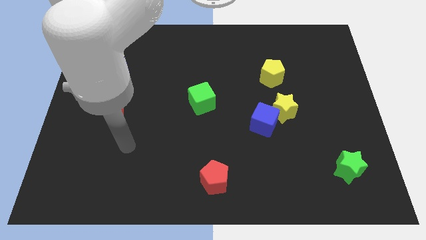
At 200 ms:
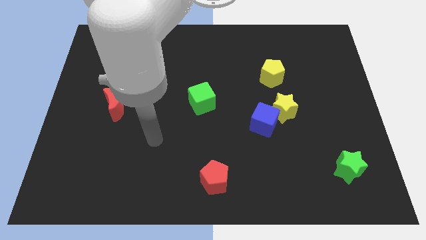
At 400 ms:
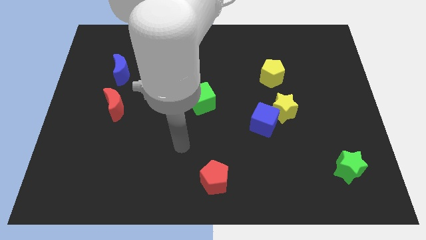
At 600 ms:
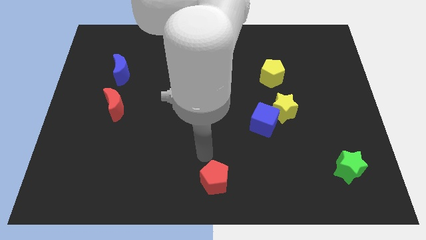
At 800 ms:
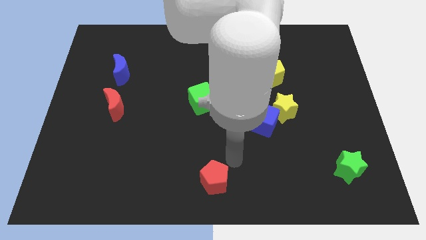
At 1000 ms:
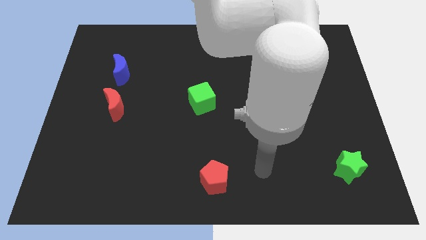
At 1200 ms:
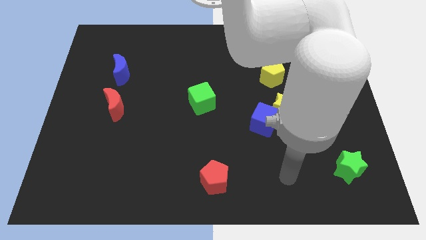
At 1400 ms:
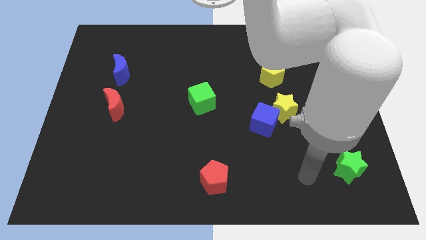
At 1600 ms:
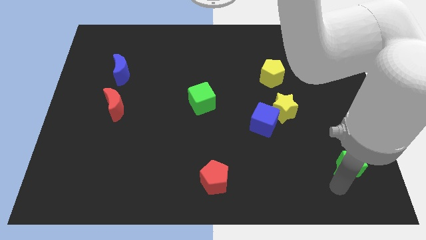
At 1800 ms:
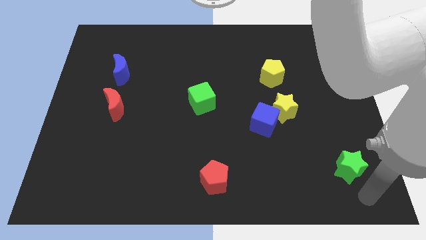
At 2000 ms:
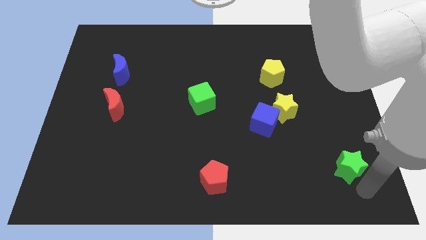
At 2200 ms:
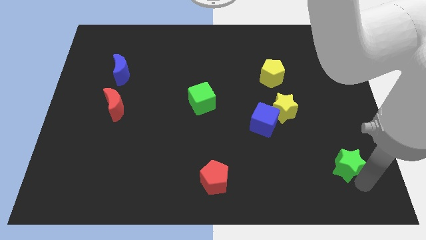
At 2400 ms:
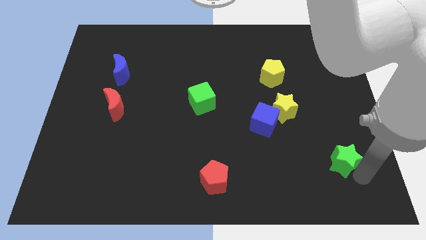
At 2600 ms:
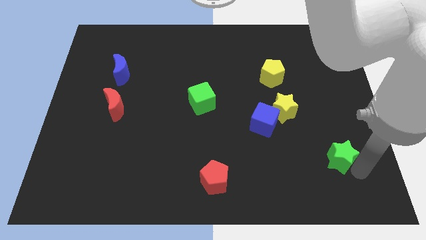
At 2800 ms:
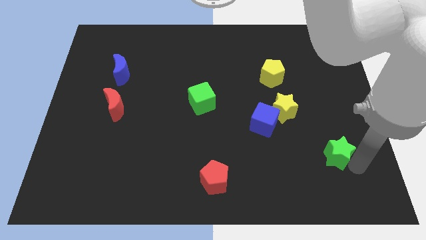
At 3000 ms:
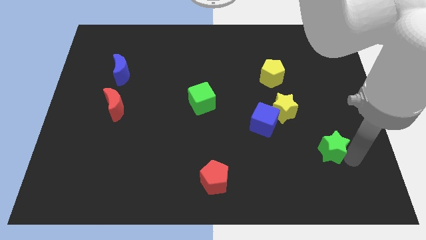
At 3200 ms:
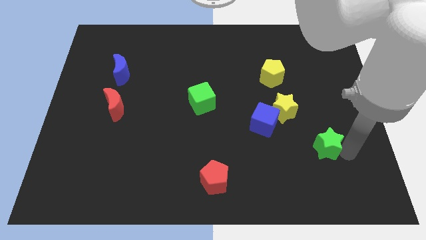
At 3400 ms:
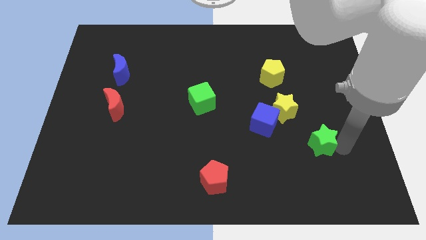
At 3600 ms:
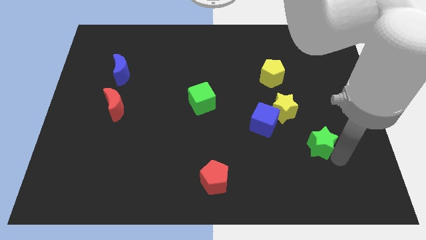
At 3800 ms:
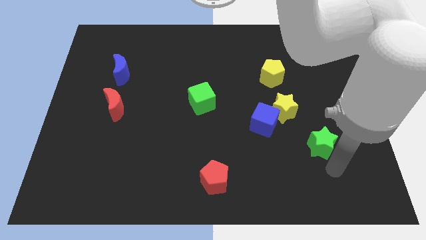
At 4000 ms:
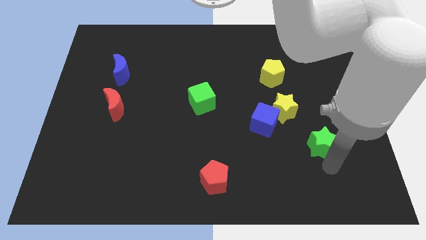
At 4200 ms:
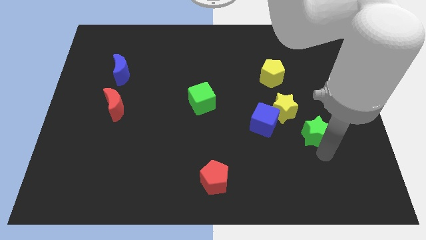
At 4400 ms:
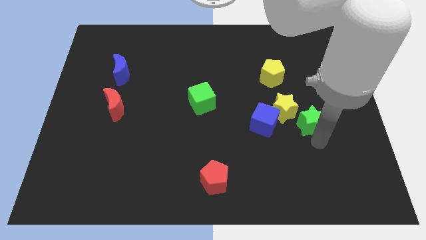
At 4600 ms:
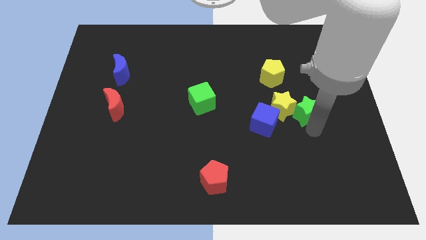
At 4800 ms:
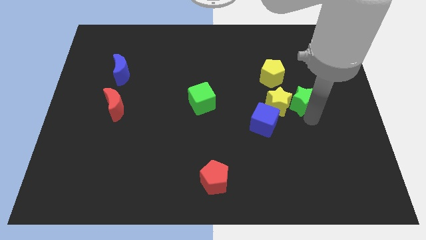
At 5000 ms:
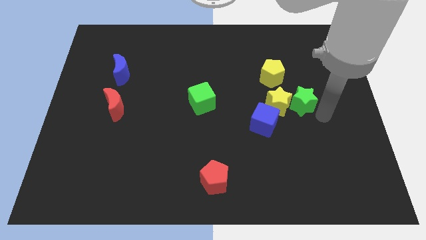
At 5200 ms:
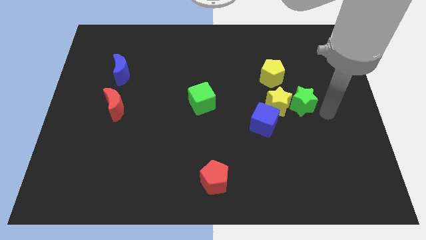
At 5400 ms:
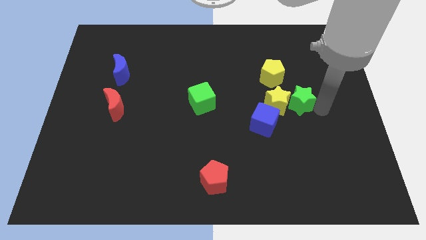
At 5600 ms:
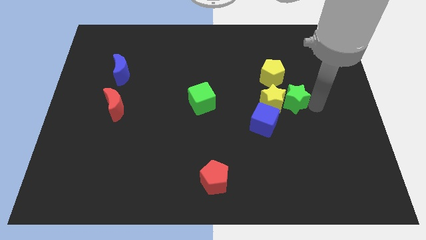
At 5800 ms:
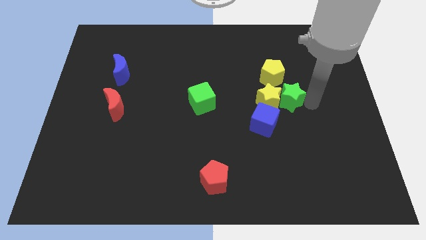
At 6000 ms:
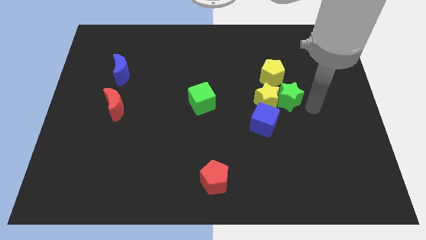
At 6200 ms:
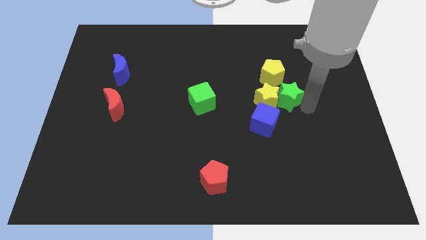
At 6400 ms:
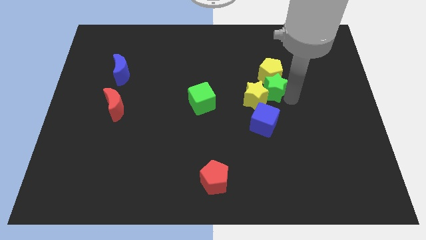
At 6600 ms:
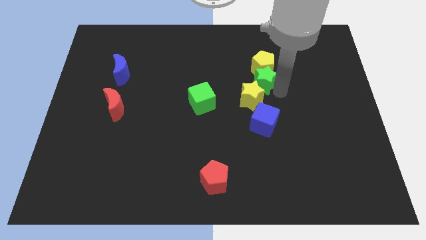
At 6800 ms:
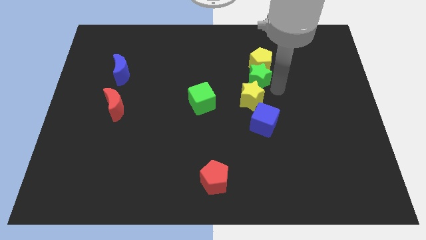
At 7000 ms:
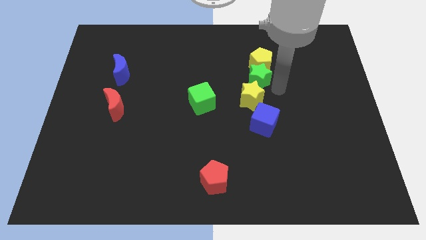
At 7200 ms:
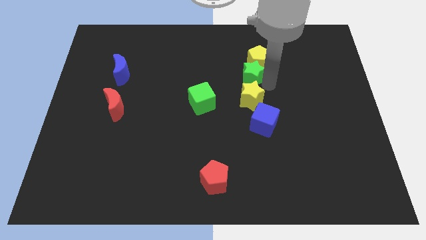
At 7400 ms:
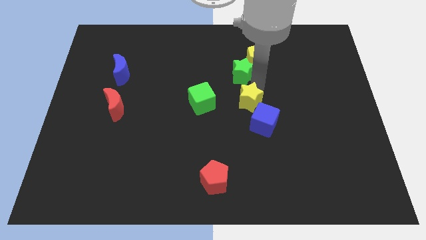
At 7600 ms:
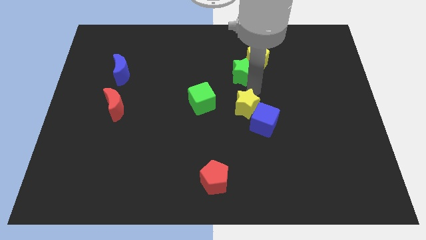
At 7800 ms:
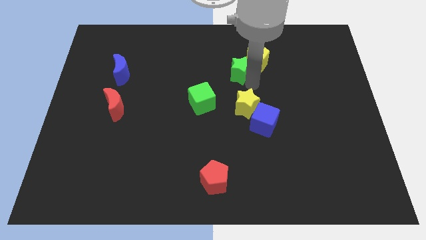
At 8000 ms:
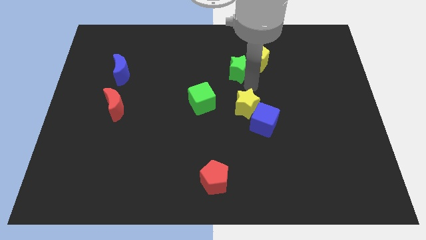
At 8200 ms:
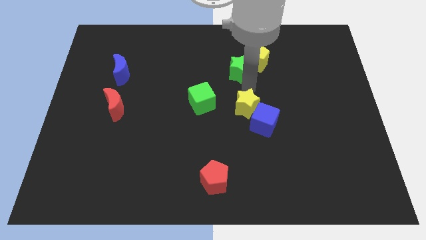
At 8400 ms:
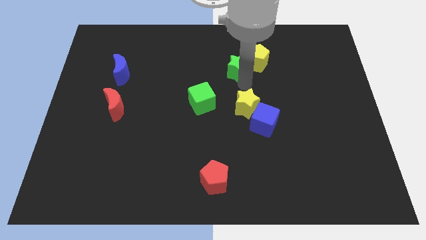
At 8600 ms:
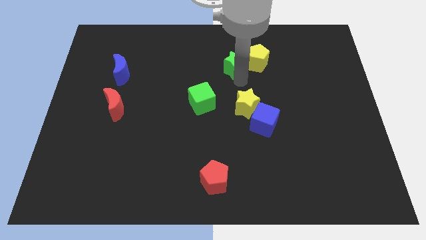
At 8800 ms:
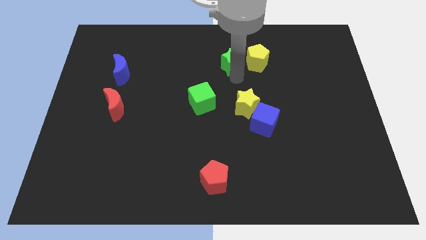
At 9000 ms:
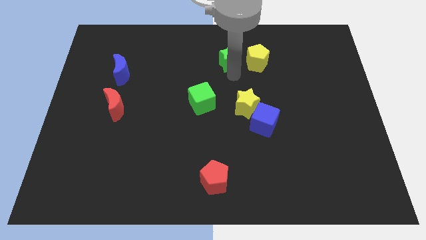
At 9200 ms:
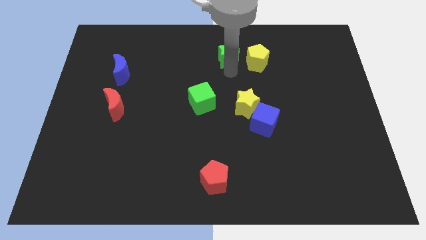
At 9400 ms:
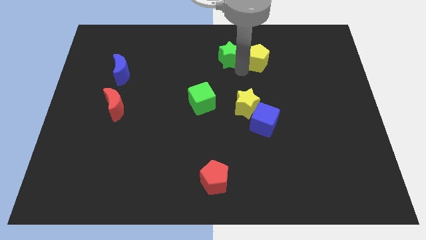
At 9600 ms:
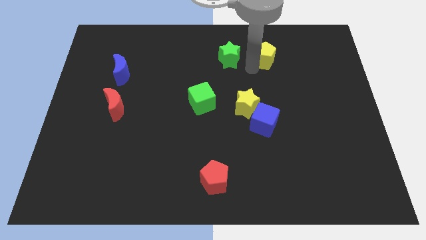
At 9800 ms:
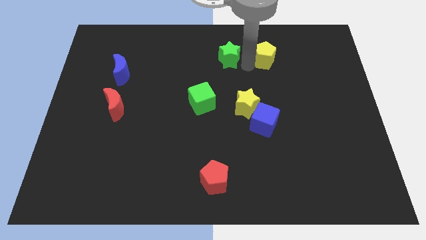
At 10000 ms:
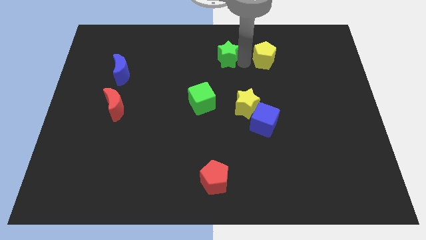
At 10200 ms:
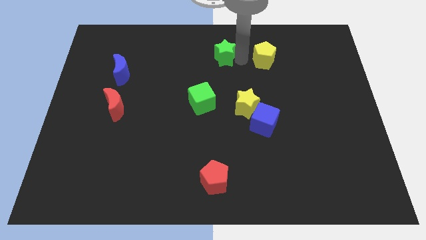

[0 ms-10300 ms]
slide the green star to the top side

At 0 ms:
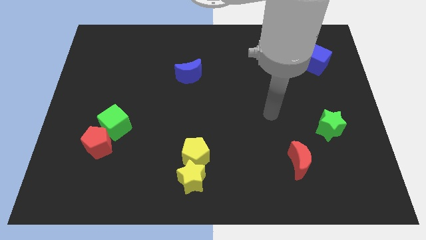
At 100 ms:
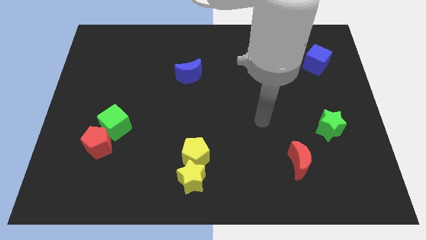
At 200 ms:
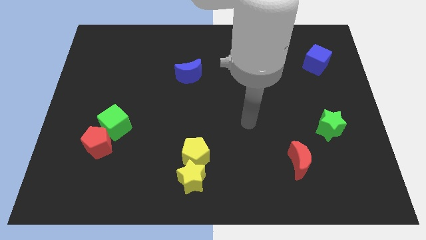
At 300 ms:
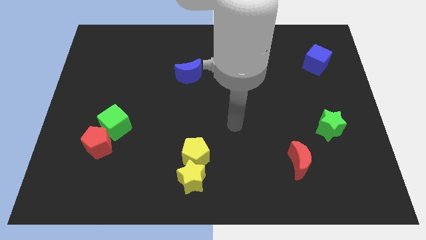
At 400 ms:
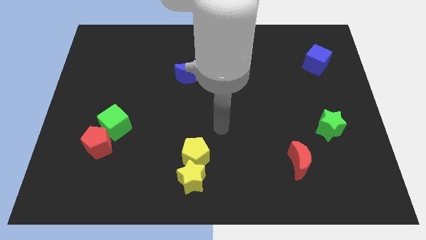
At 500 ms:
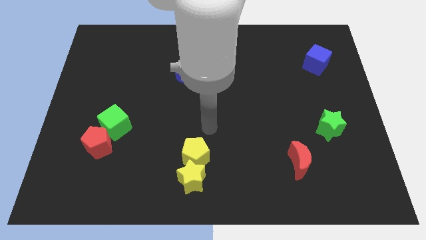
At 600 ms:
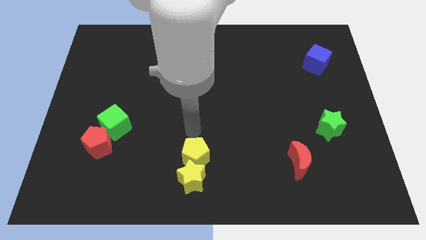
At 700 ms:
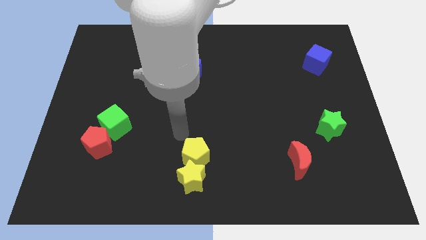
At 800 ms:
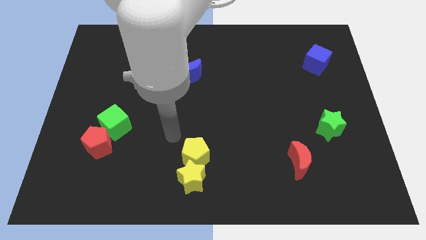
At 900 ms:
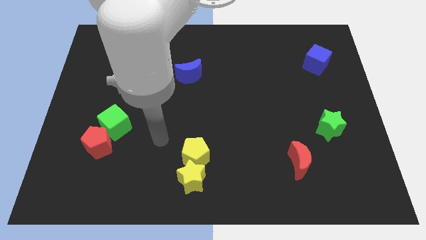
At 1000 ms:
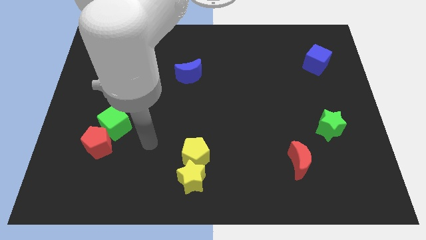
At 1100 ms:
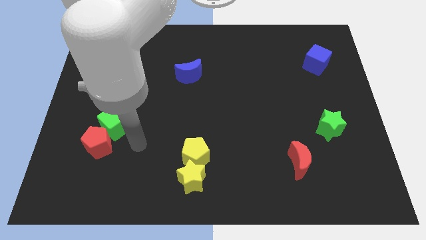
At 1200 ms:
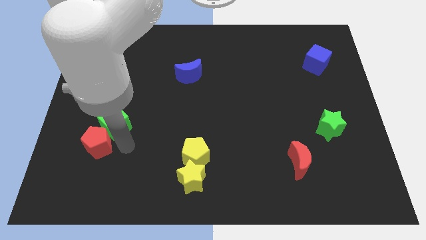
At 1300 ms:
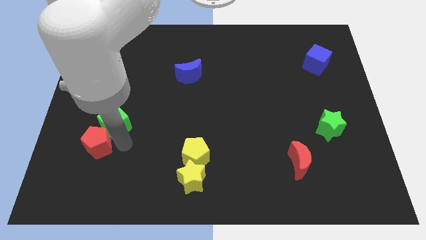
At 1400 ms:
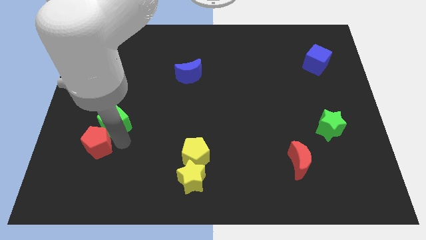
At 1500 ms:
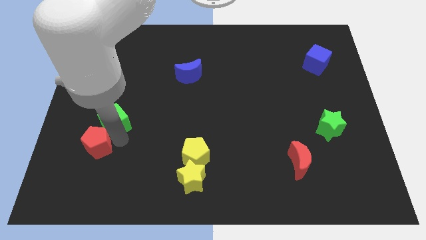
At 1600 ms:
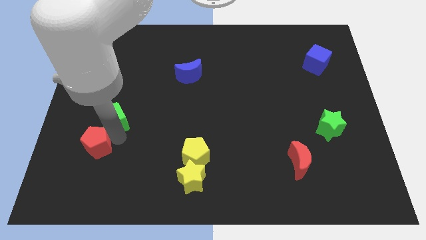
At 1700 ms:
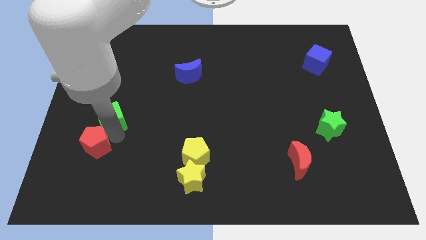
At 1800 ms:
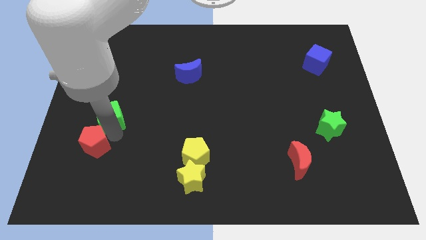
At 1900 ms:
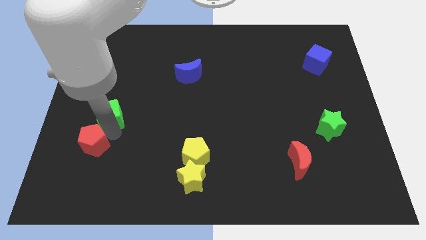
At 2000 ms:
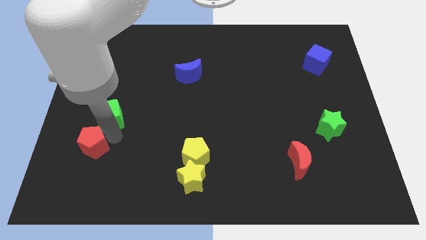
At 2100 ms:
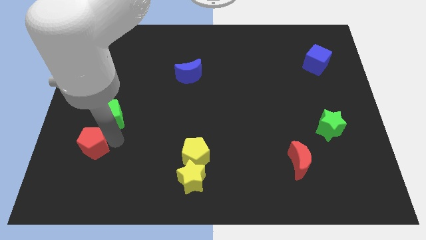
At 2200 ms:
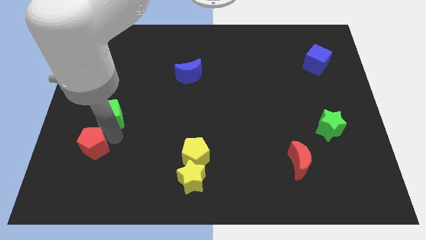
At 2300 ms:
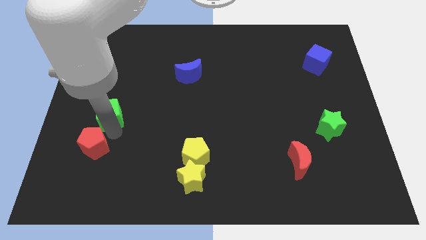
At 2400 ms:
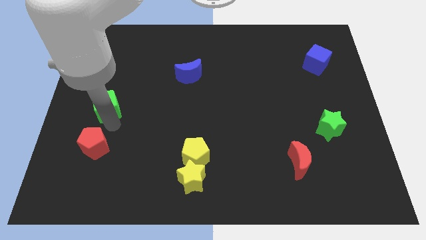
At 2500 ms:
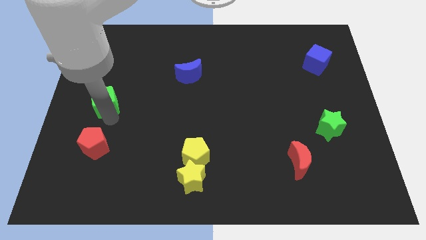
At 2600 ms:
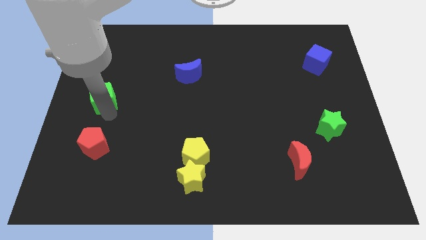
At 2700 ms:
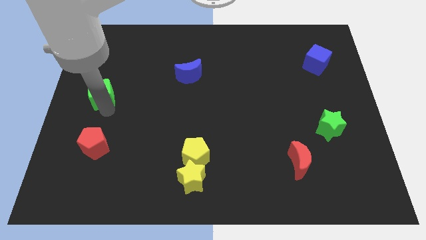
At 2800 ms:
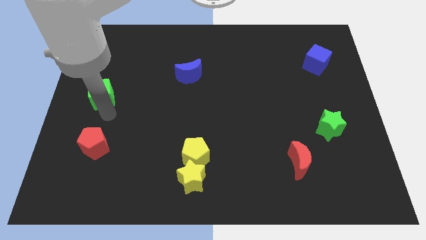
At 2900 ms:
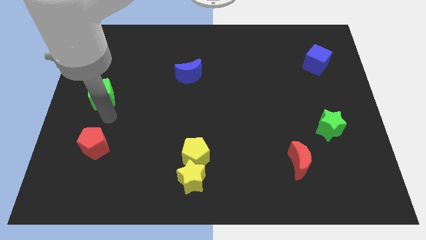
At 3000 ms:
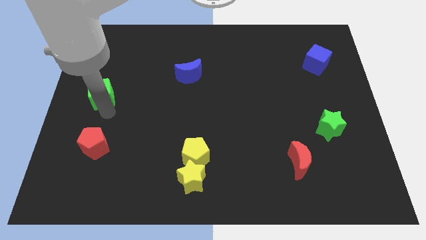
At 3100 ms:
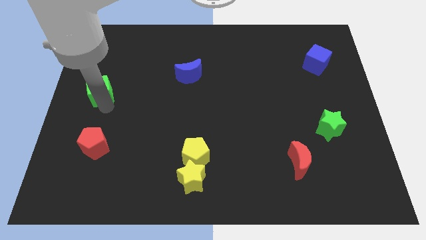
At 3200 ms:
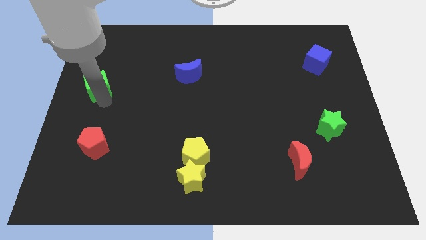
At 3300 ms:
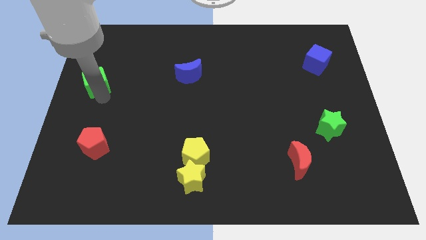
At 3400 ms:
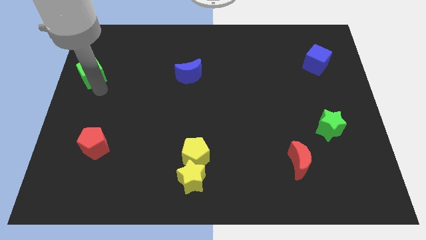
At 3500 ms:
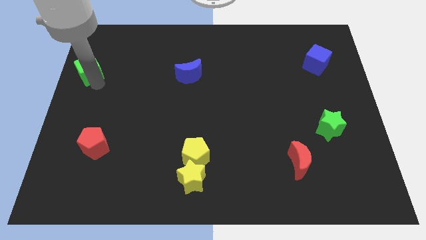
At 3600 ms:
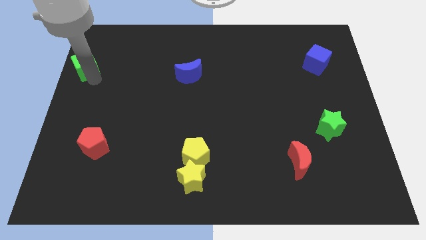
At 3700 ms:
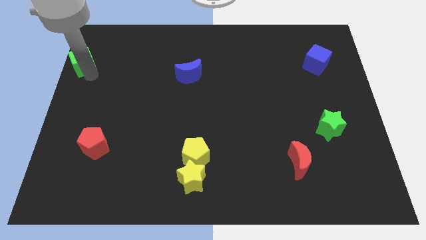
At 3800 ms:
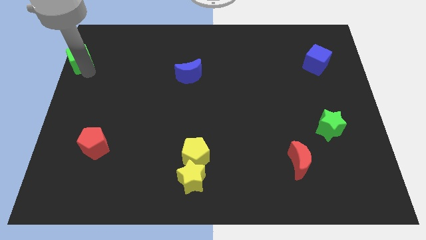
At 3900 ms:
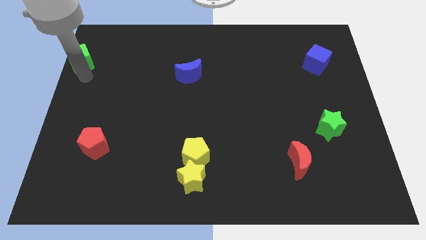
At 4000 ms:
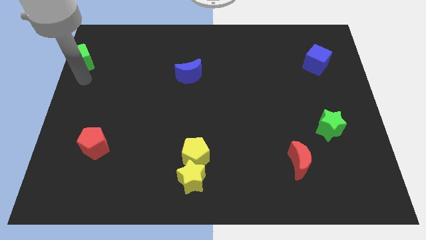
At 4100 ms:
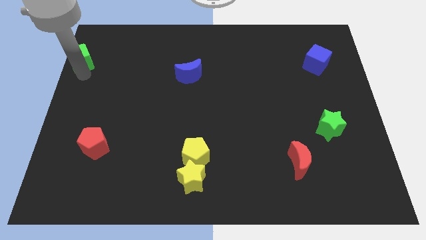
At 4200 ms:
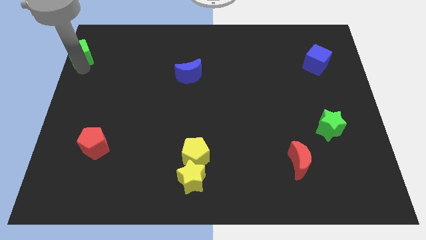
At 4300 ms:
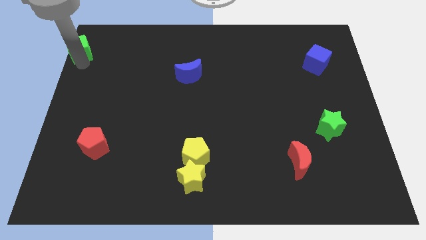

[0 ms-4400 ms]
put the green cube to the top left of the board
